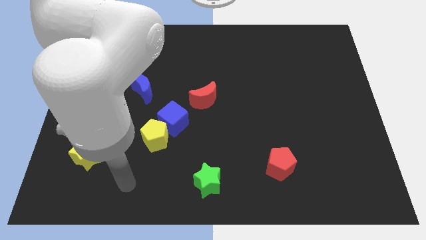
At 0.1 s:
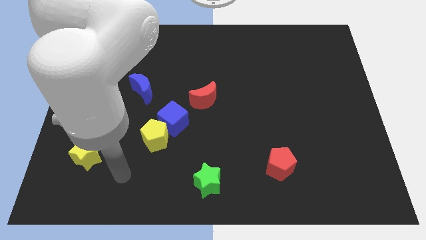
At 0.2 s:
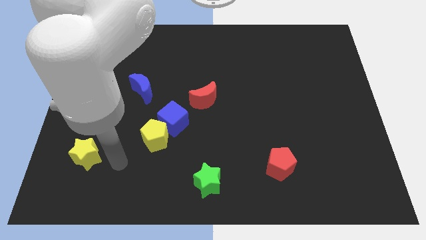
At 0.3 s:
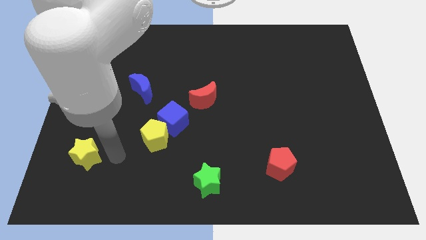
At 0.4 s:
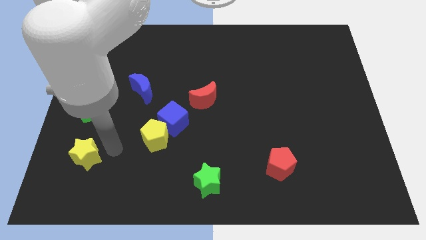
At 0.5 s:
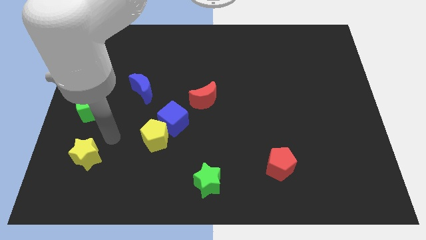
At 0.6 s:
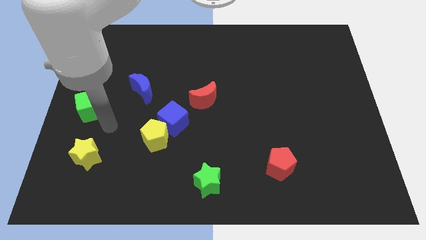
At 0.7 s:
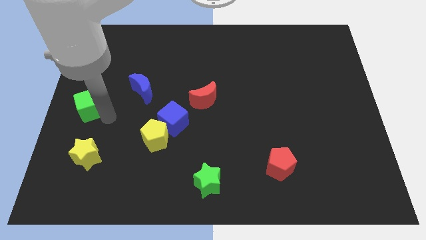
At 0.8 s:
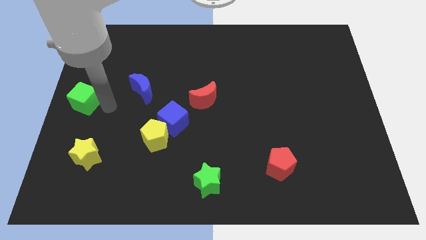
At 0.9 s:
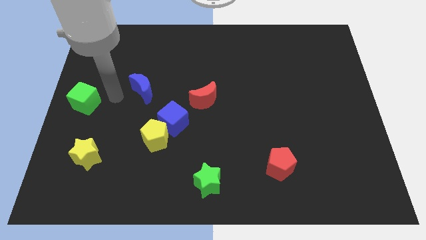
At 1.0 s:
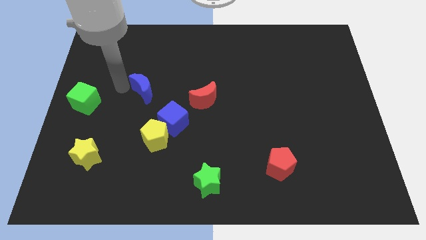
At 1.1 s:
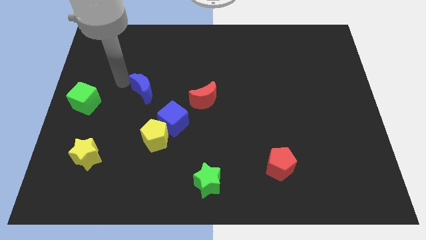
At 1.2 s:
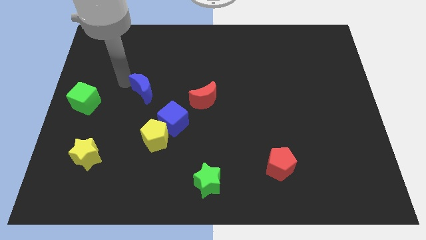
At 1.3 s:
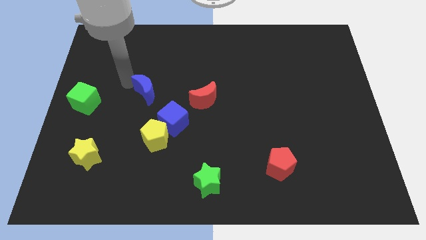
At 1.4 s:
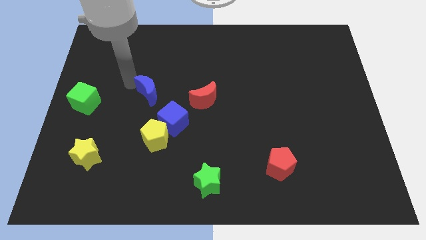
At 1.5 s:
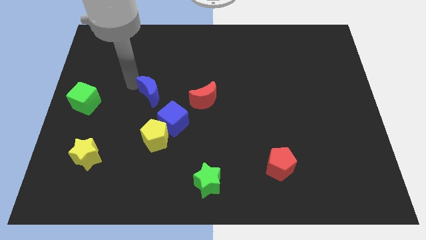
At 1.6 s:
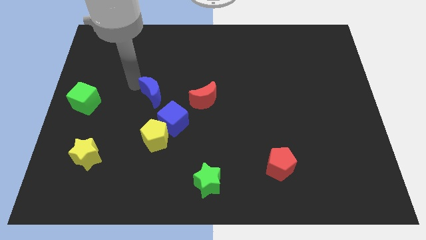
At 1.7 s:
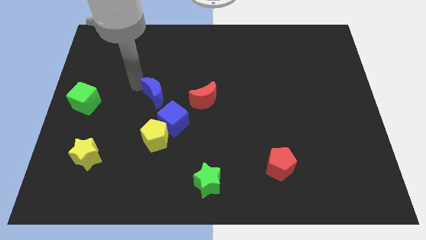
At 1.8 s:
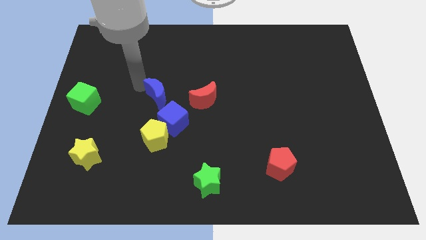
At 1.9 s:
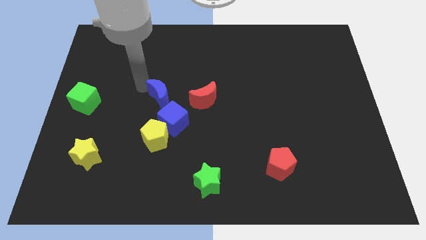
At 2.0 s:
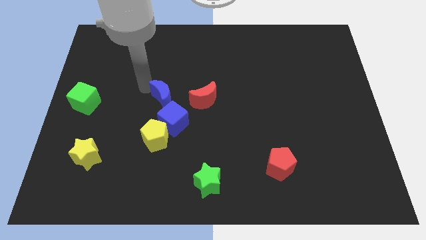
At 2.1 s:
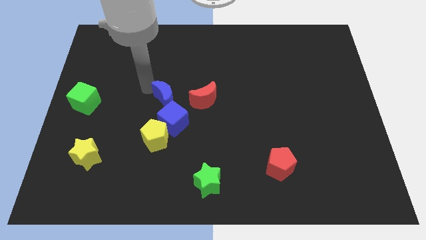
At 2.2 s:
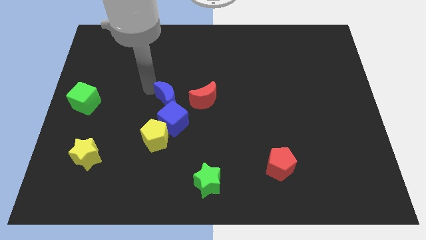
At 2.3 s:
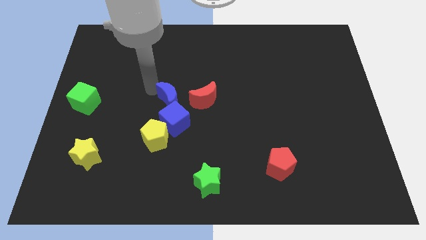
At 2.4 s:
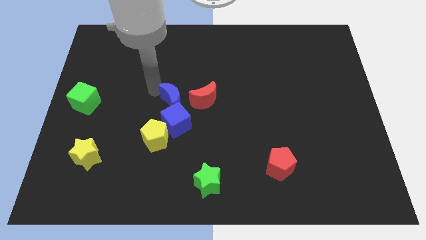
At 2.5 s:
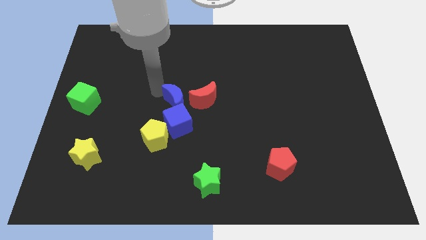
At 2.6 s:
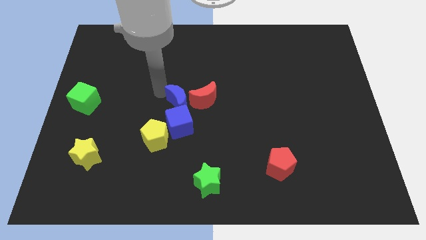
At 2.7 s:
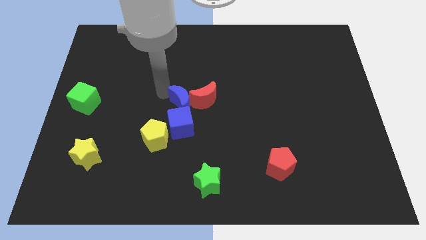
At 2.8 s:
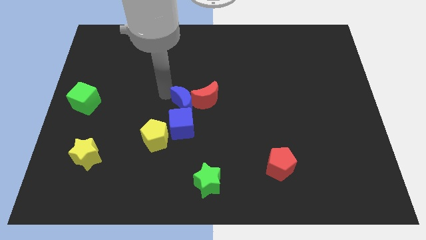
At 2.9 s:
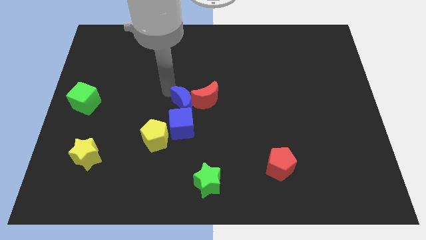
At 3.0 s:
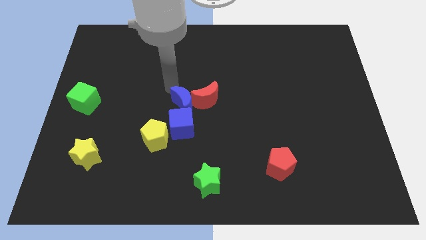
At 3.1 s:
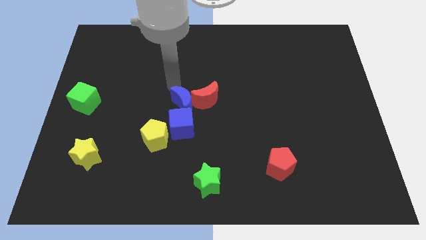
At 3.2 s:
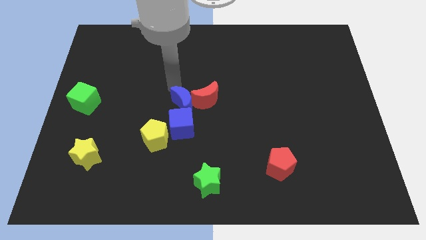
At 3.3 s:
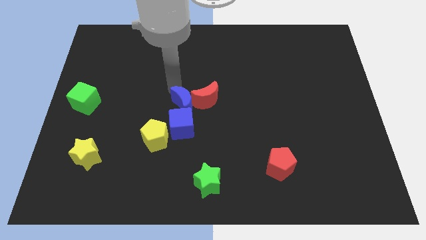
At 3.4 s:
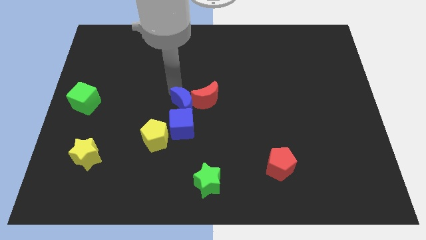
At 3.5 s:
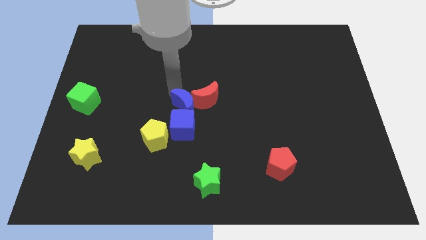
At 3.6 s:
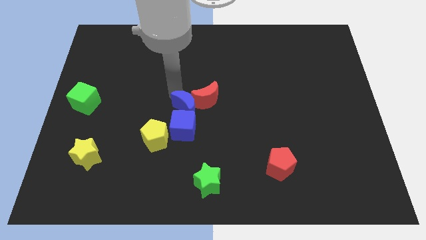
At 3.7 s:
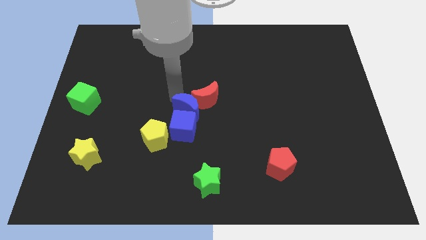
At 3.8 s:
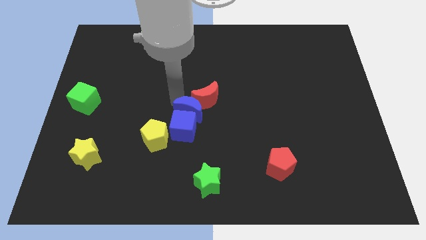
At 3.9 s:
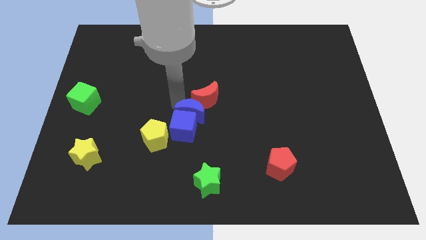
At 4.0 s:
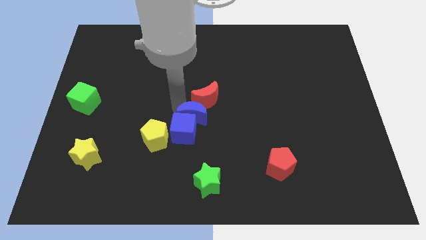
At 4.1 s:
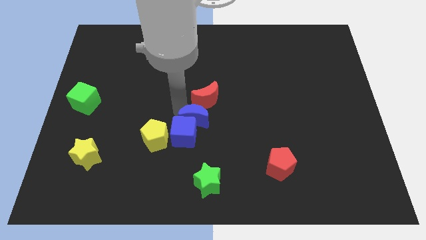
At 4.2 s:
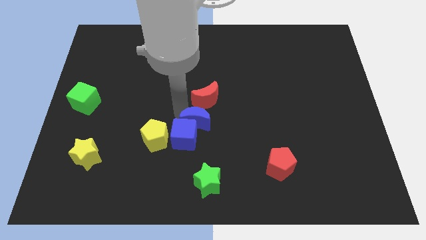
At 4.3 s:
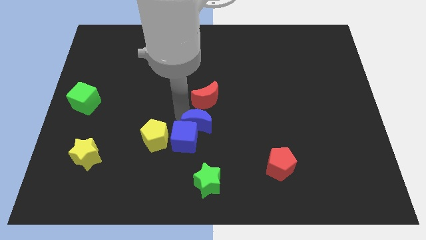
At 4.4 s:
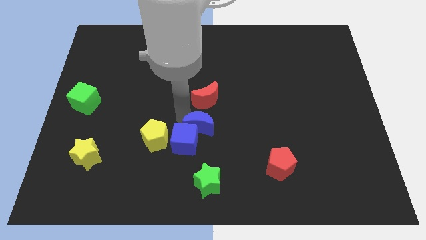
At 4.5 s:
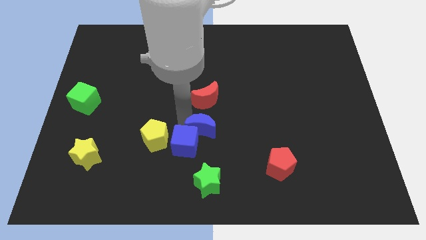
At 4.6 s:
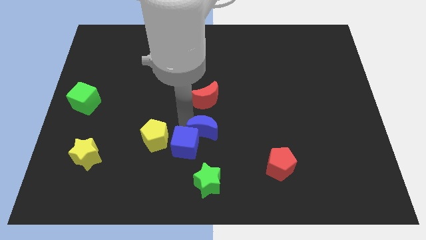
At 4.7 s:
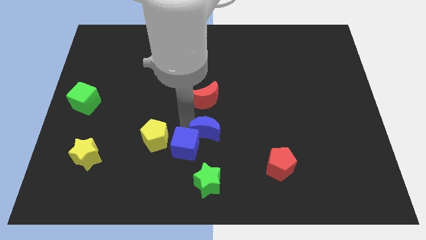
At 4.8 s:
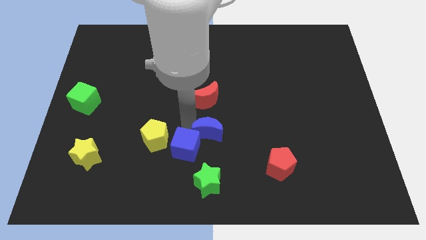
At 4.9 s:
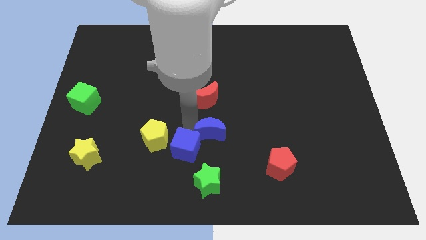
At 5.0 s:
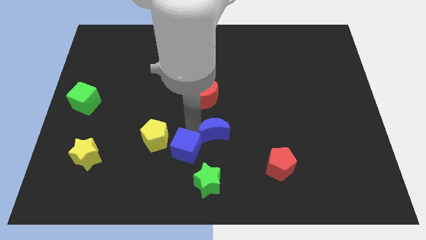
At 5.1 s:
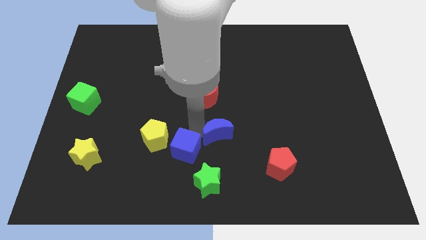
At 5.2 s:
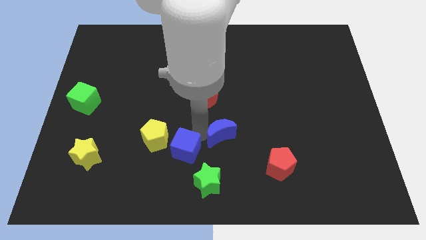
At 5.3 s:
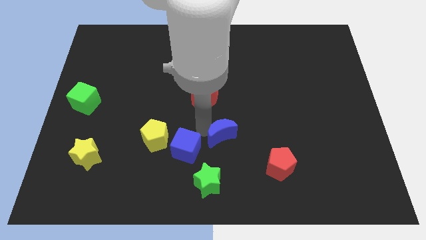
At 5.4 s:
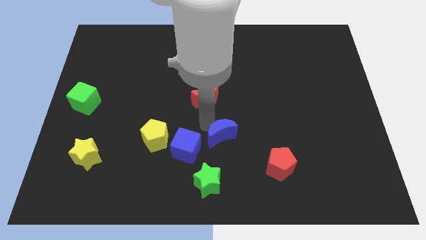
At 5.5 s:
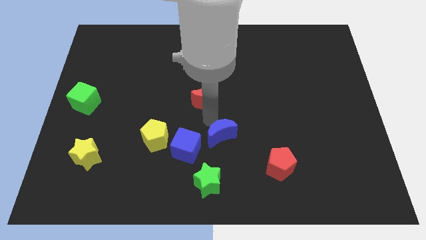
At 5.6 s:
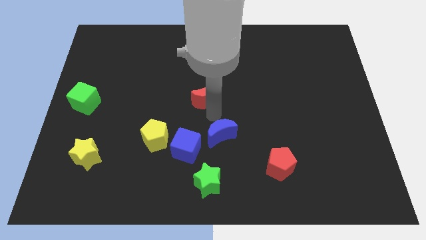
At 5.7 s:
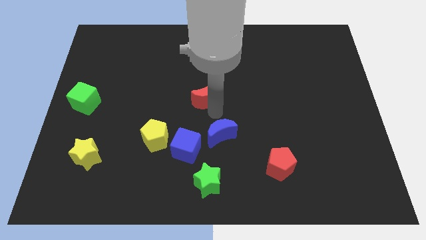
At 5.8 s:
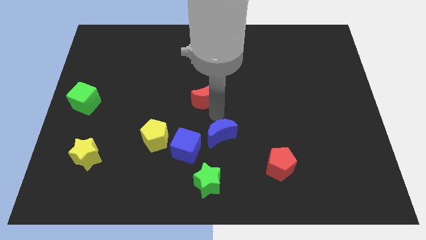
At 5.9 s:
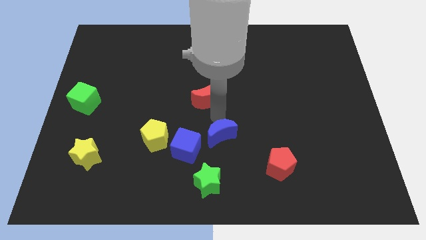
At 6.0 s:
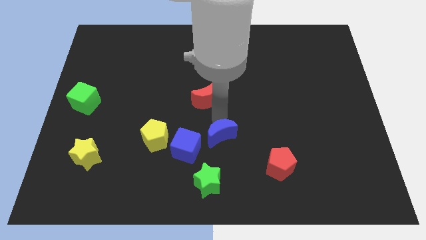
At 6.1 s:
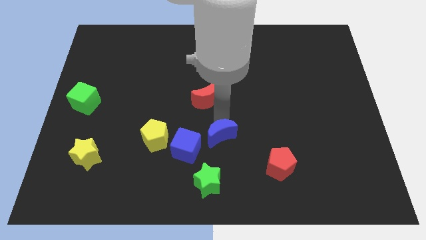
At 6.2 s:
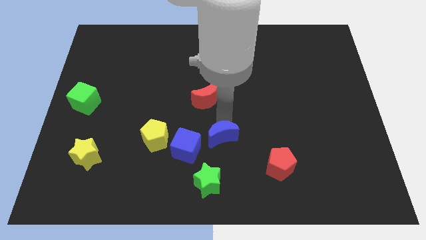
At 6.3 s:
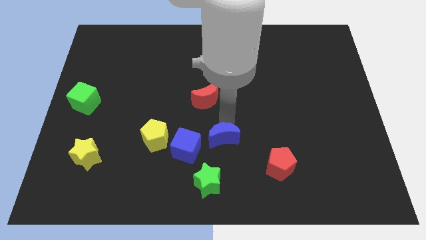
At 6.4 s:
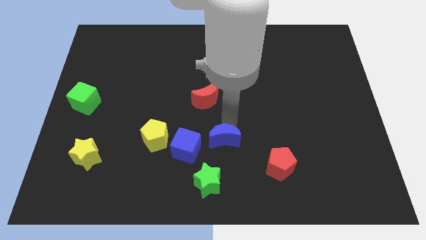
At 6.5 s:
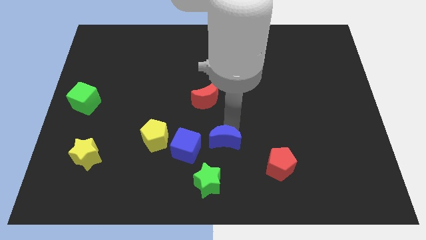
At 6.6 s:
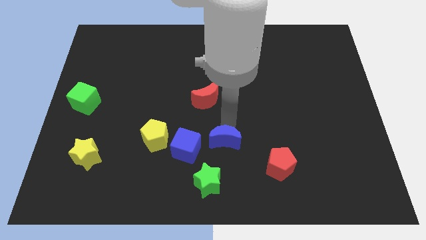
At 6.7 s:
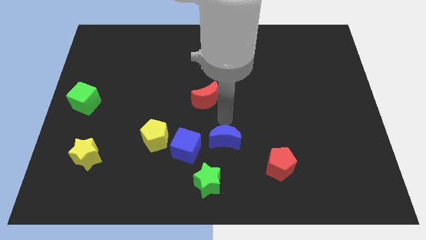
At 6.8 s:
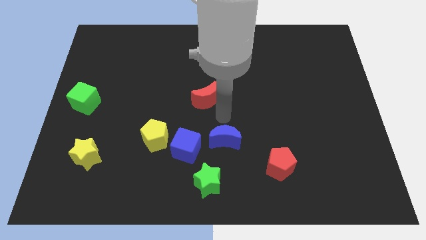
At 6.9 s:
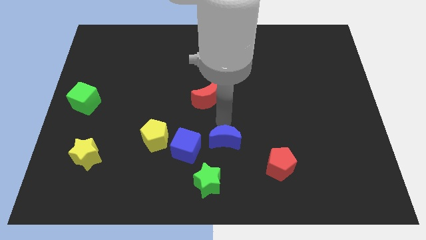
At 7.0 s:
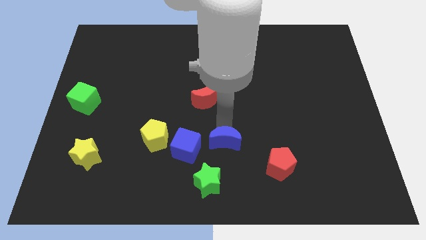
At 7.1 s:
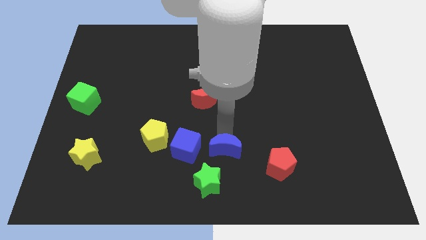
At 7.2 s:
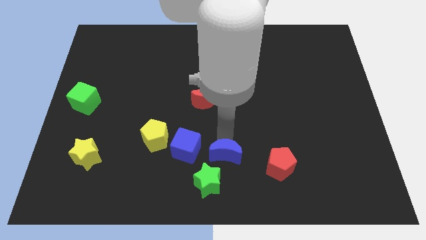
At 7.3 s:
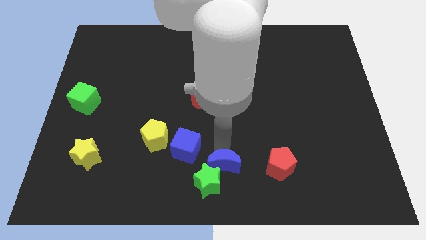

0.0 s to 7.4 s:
put the blue moon to the right side of the green star

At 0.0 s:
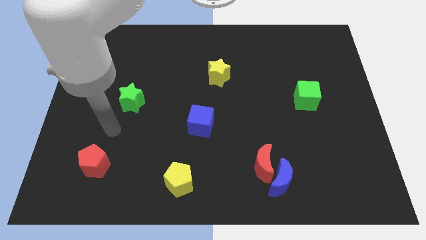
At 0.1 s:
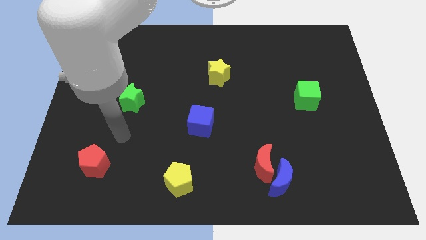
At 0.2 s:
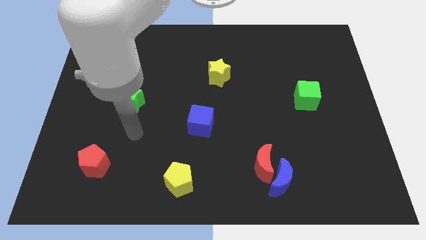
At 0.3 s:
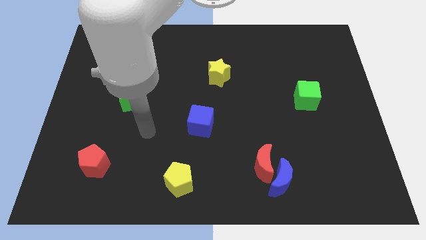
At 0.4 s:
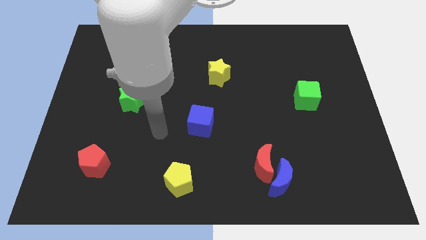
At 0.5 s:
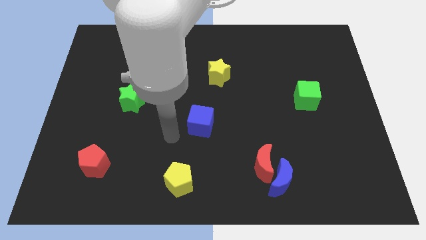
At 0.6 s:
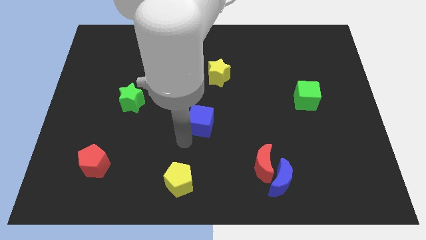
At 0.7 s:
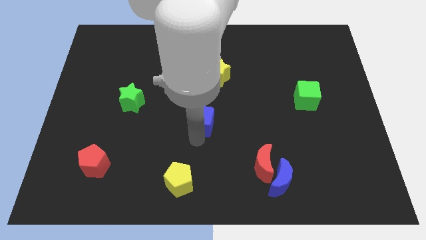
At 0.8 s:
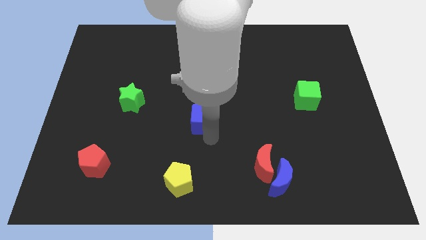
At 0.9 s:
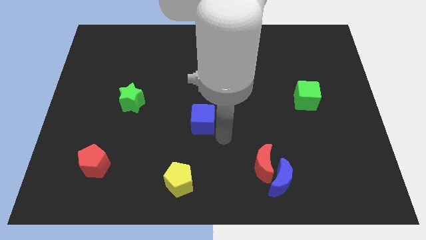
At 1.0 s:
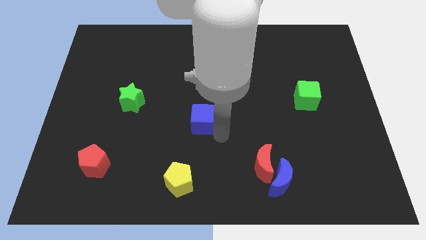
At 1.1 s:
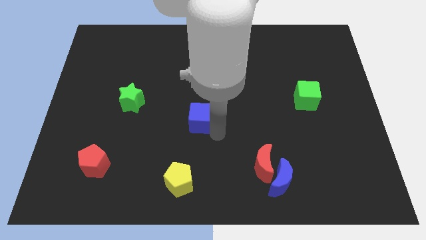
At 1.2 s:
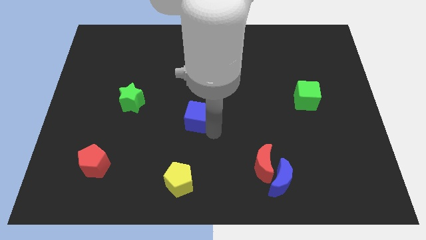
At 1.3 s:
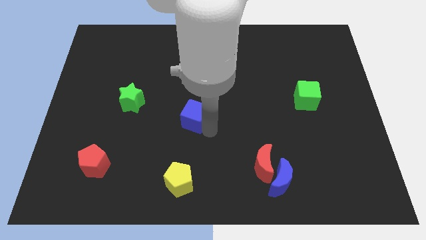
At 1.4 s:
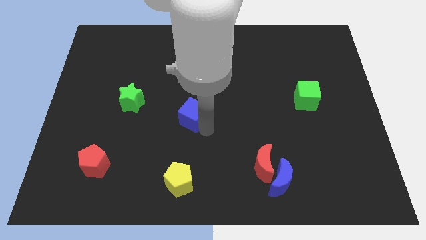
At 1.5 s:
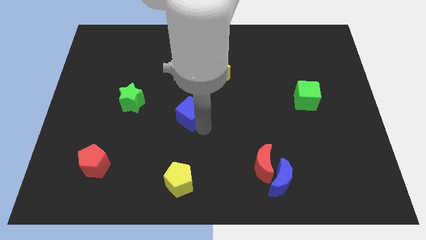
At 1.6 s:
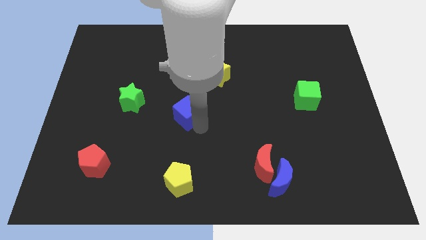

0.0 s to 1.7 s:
put the blue cube to the right side of the green star
